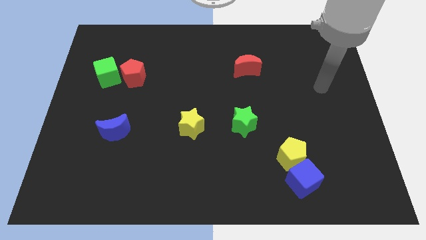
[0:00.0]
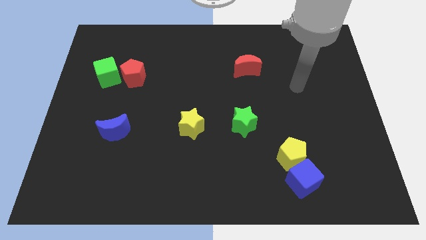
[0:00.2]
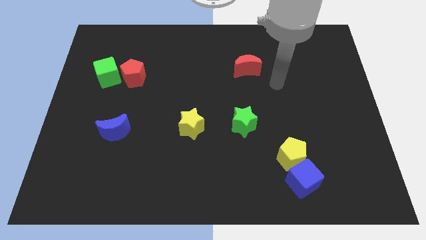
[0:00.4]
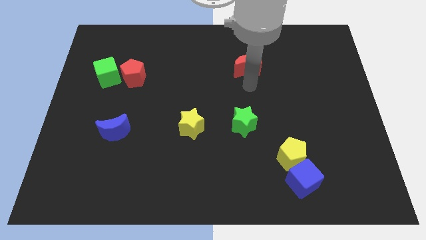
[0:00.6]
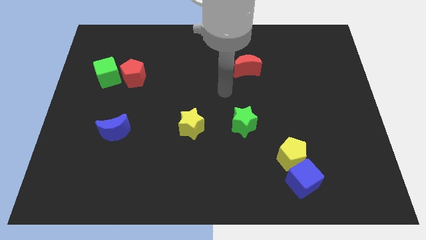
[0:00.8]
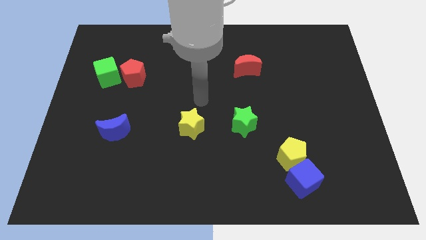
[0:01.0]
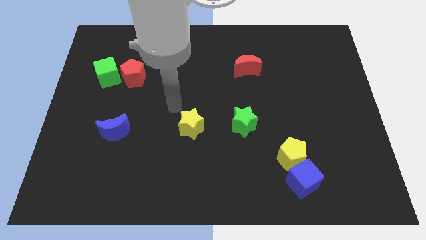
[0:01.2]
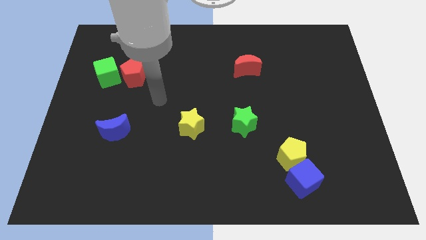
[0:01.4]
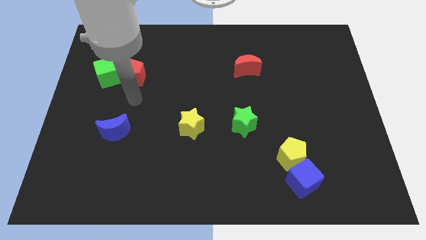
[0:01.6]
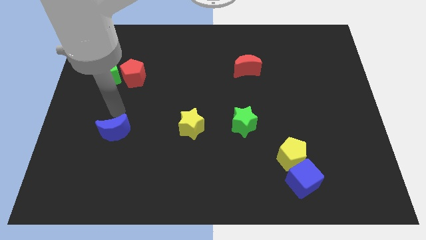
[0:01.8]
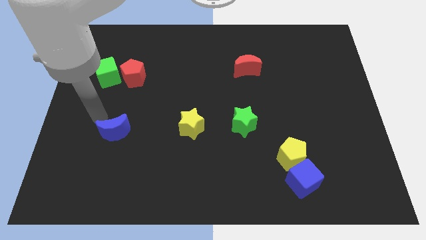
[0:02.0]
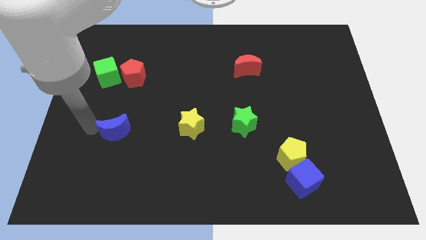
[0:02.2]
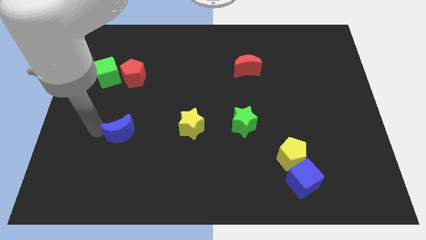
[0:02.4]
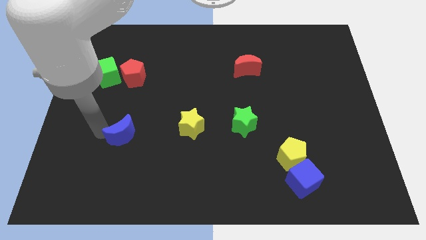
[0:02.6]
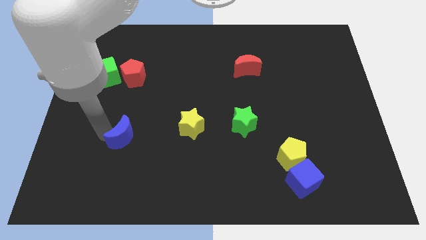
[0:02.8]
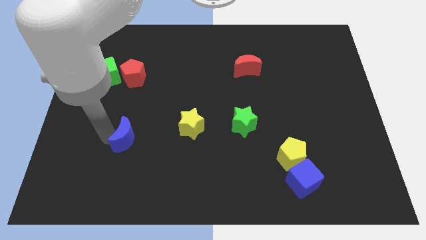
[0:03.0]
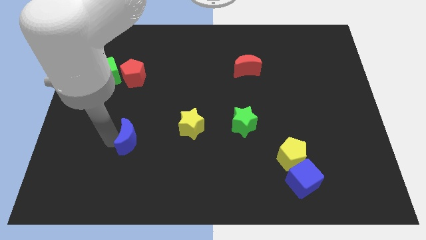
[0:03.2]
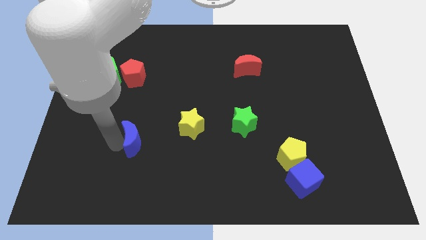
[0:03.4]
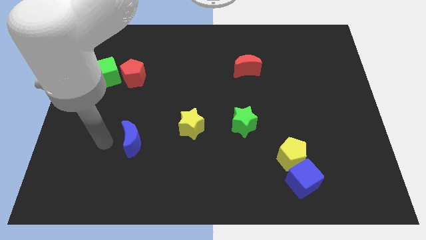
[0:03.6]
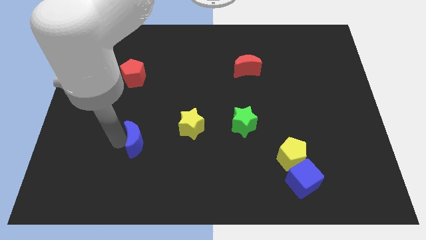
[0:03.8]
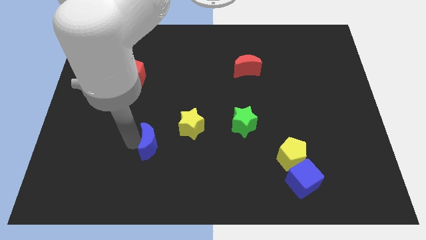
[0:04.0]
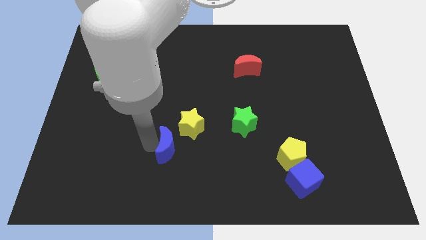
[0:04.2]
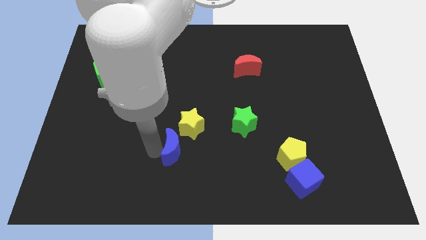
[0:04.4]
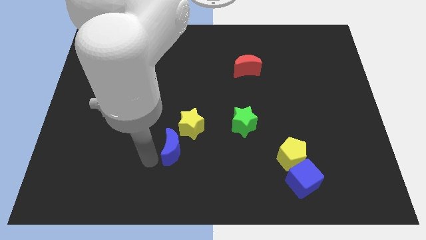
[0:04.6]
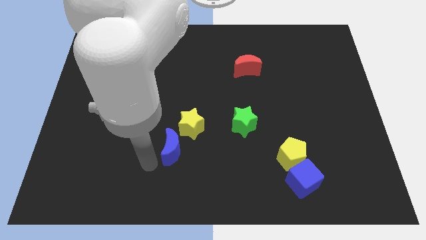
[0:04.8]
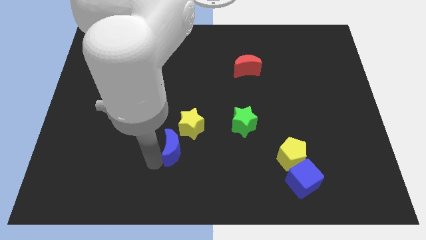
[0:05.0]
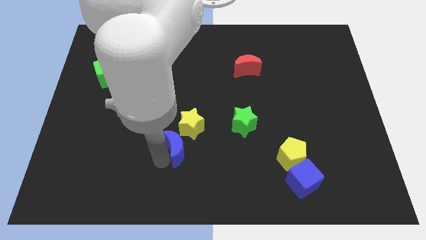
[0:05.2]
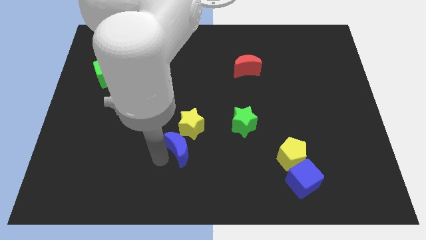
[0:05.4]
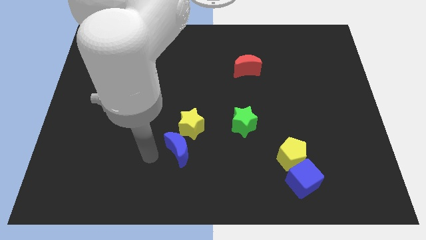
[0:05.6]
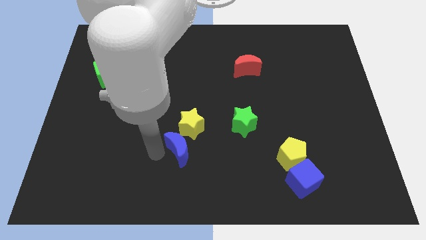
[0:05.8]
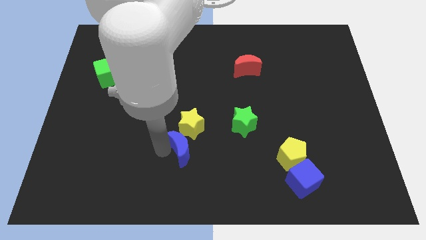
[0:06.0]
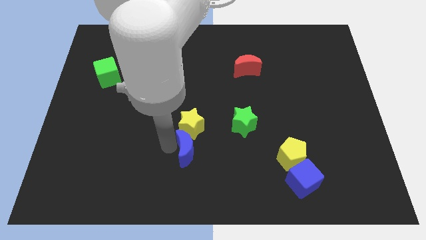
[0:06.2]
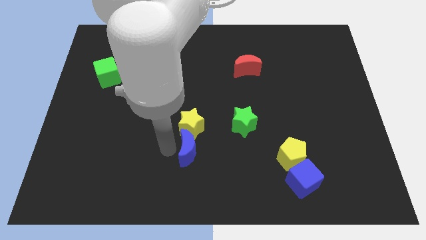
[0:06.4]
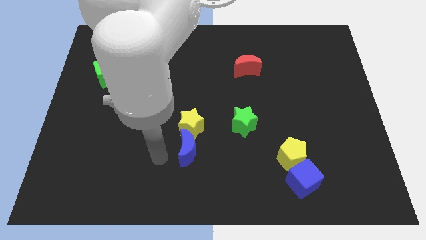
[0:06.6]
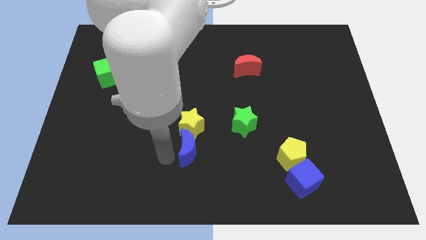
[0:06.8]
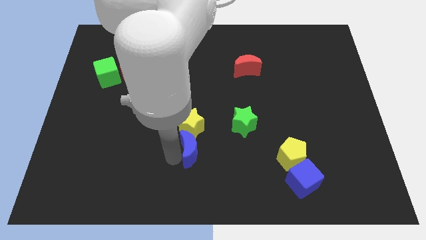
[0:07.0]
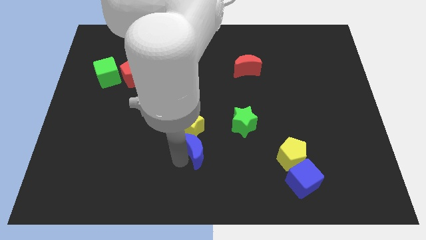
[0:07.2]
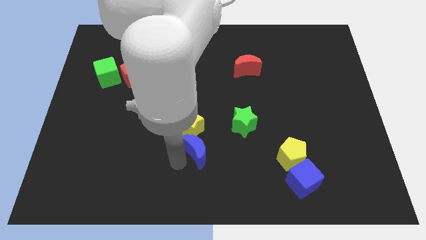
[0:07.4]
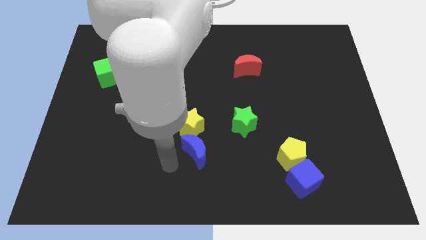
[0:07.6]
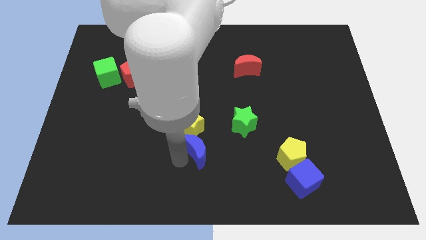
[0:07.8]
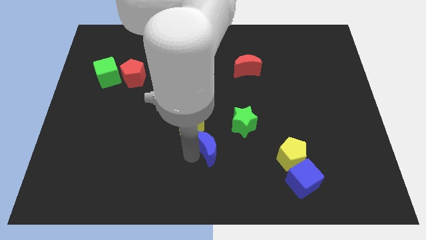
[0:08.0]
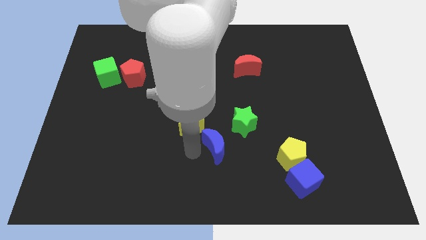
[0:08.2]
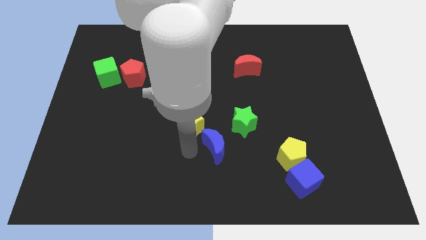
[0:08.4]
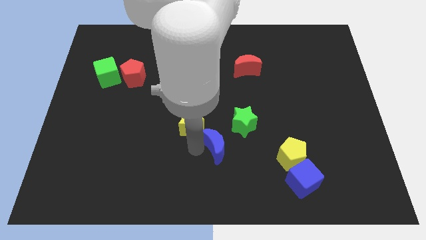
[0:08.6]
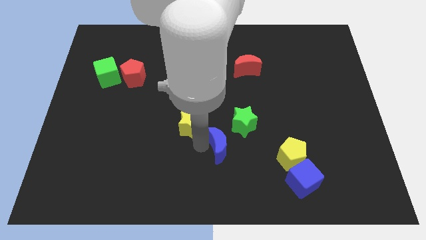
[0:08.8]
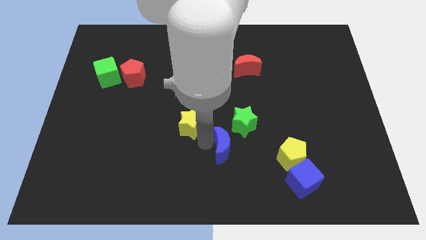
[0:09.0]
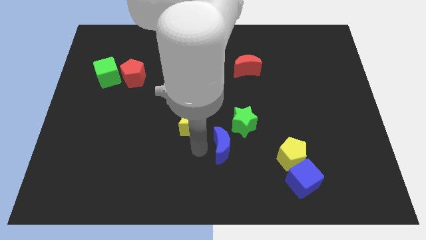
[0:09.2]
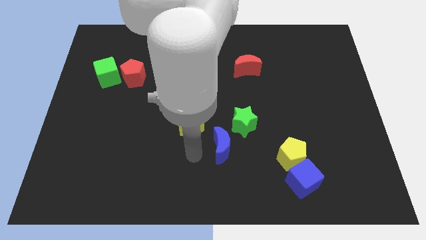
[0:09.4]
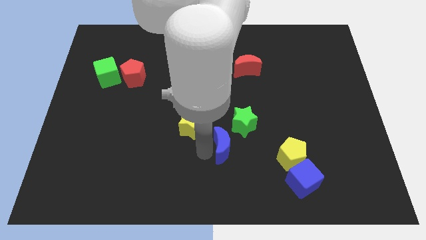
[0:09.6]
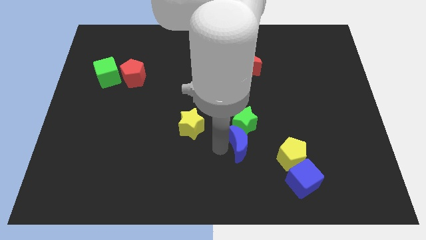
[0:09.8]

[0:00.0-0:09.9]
push the blue moon diagonally down and to the right of the green star

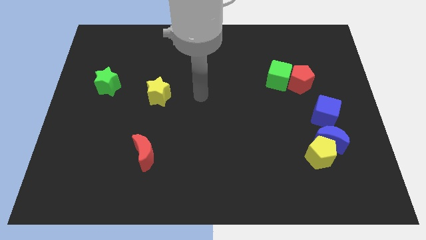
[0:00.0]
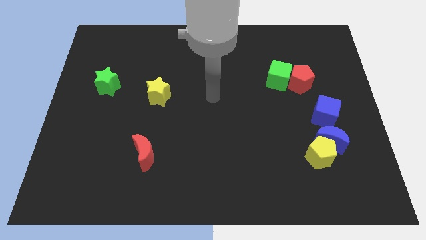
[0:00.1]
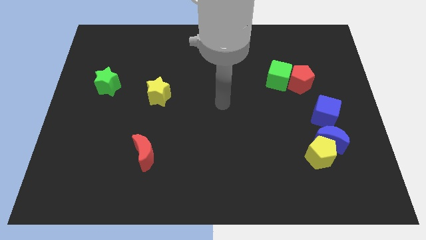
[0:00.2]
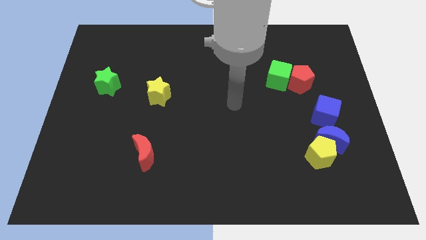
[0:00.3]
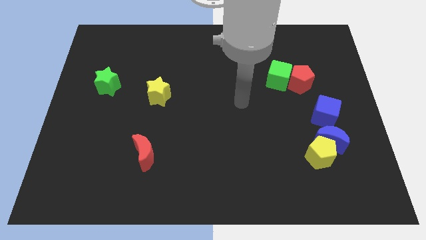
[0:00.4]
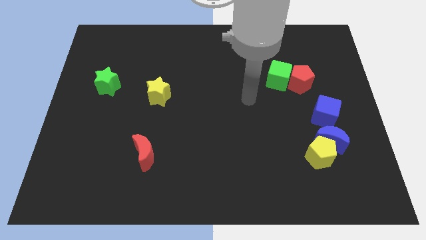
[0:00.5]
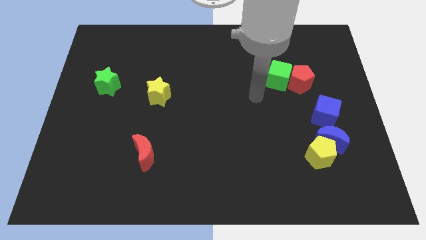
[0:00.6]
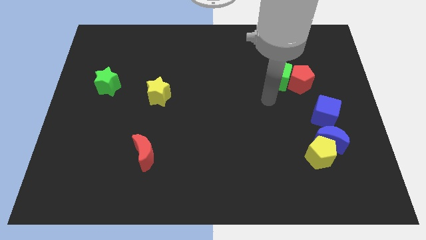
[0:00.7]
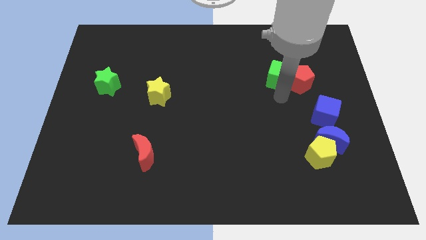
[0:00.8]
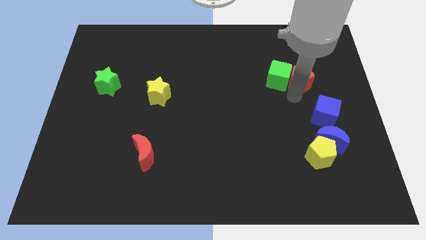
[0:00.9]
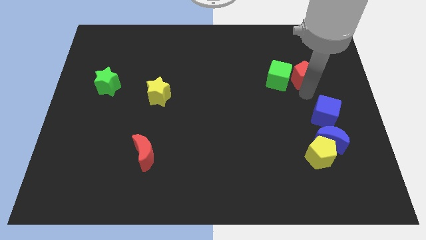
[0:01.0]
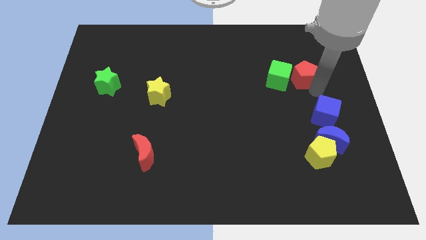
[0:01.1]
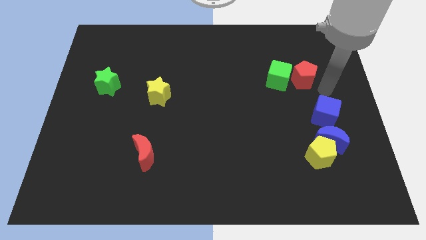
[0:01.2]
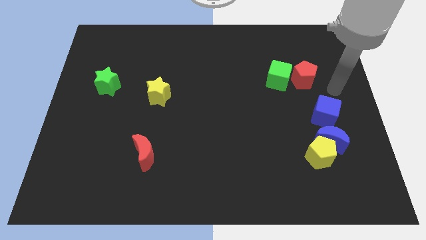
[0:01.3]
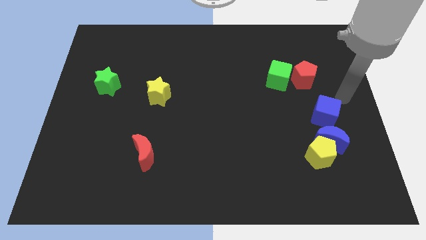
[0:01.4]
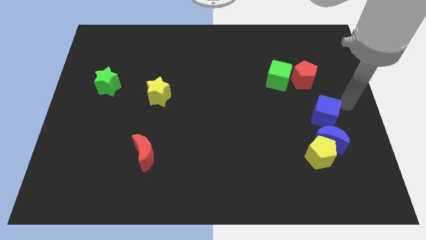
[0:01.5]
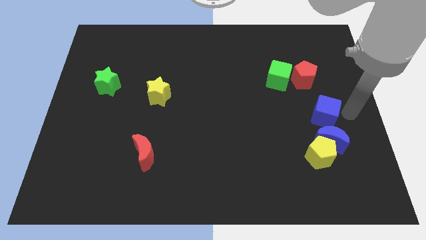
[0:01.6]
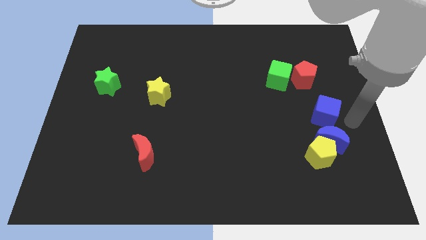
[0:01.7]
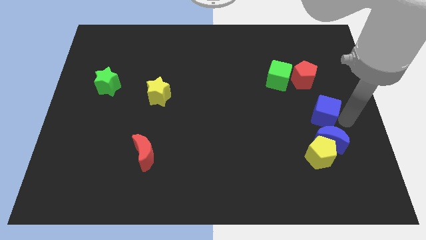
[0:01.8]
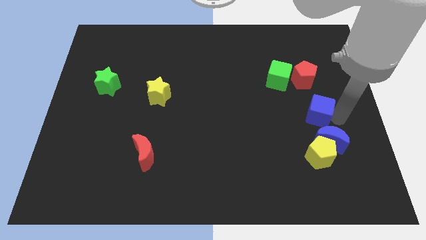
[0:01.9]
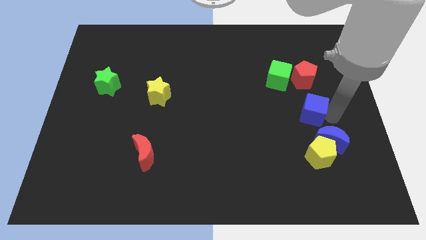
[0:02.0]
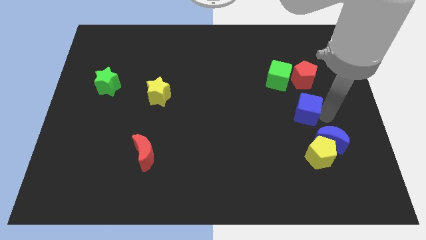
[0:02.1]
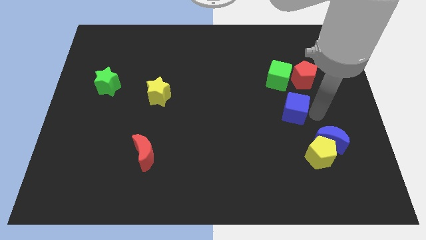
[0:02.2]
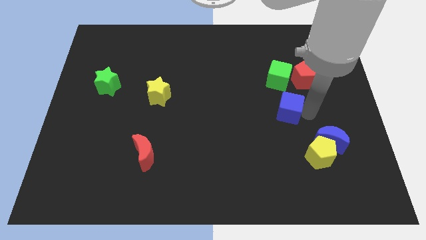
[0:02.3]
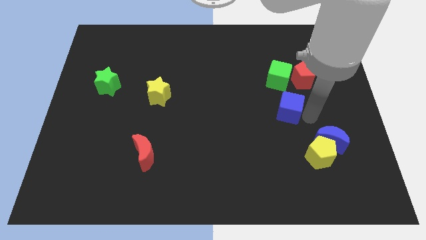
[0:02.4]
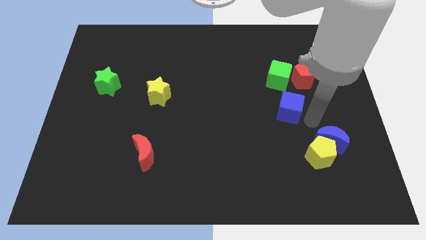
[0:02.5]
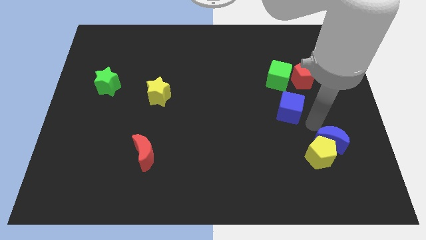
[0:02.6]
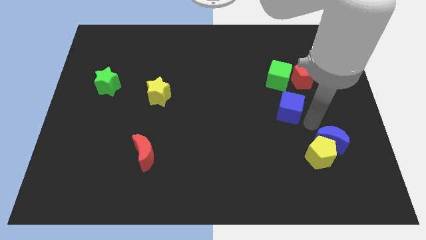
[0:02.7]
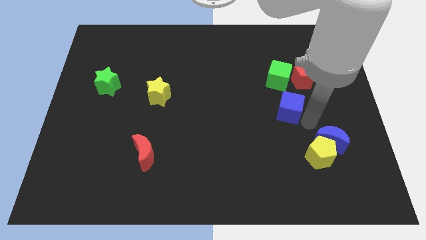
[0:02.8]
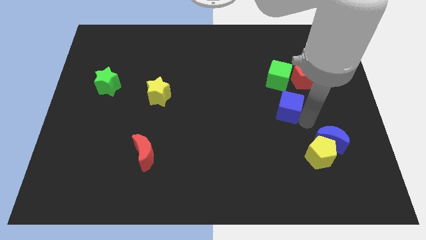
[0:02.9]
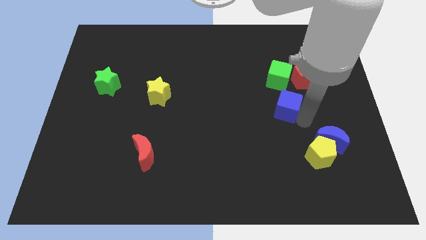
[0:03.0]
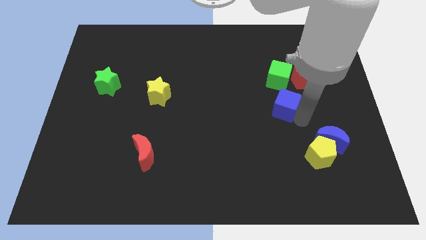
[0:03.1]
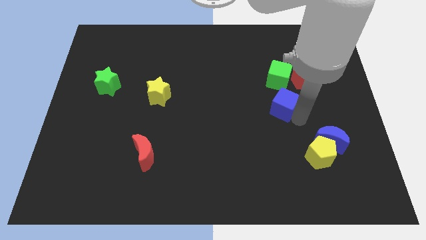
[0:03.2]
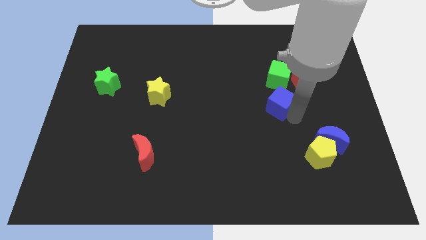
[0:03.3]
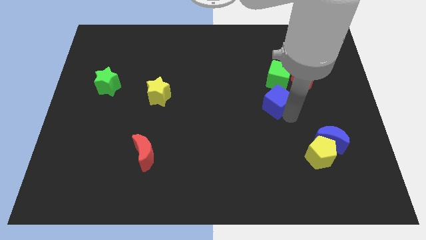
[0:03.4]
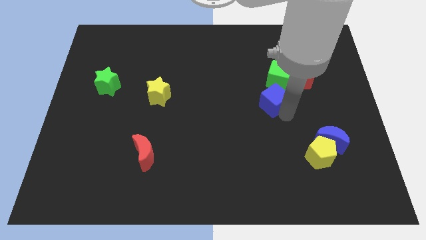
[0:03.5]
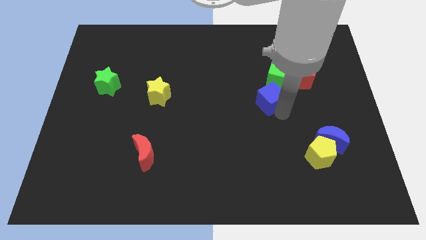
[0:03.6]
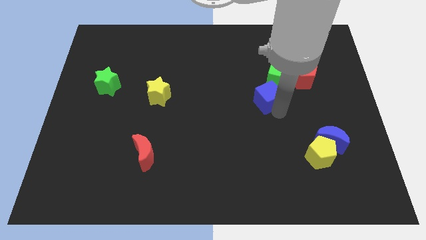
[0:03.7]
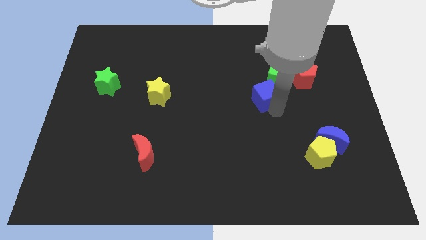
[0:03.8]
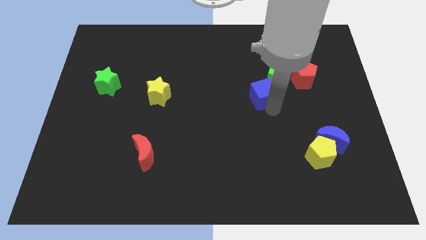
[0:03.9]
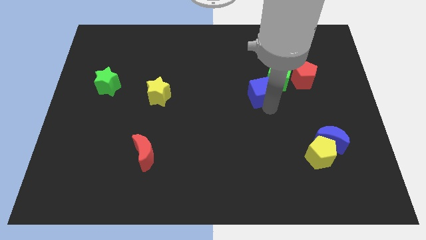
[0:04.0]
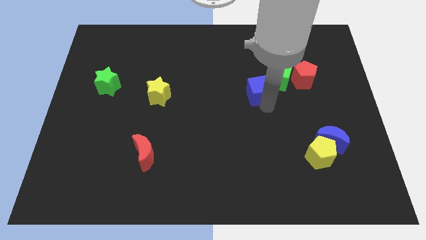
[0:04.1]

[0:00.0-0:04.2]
slide the blue cube left of the red pentagon
